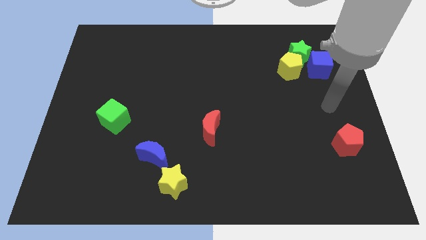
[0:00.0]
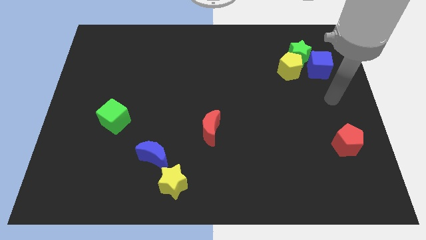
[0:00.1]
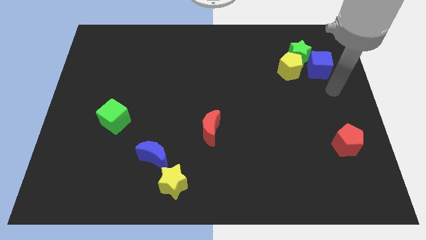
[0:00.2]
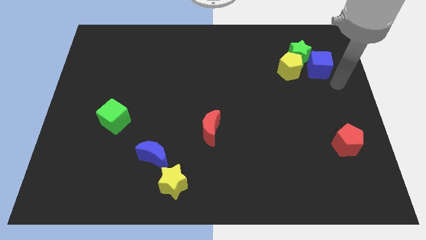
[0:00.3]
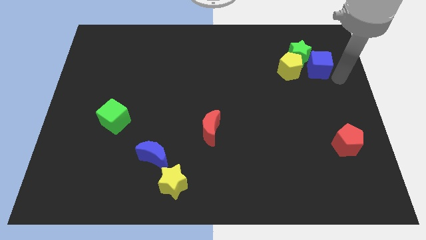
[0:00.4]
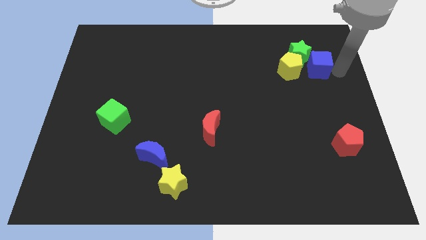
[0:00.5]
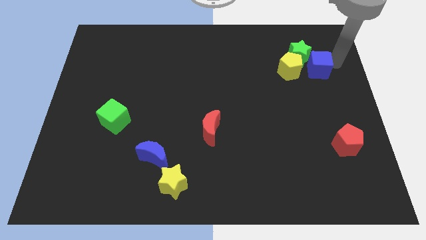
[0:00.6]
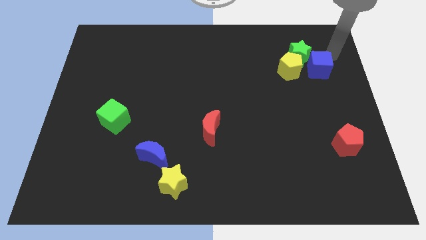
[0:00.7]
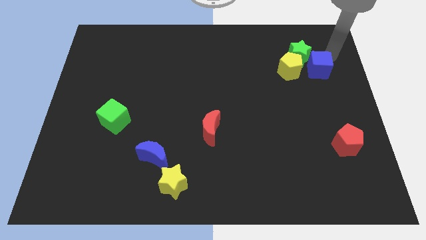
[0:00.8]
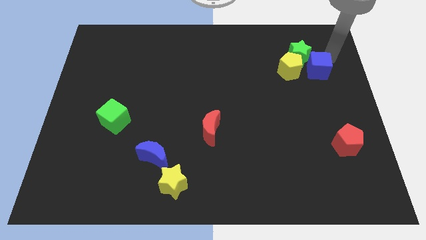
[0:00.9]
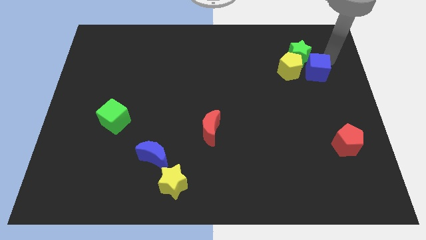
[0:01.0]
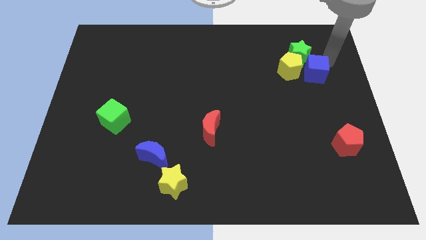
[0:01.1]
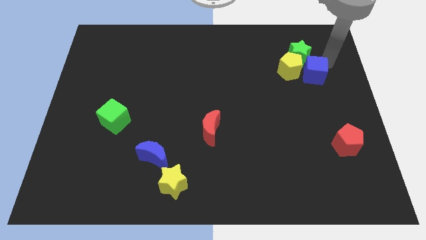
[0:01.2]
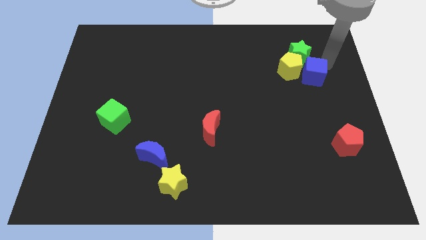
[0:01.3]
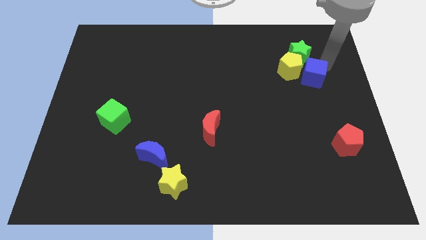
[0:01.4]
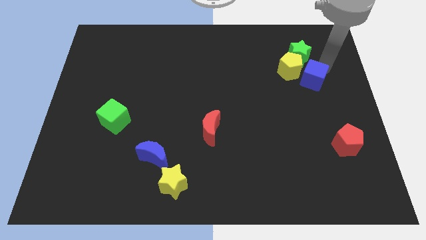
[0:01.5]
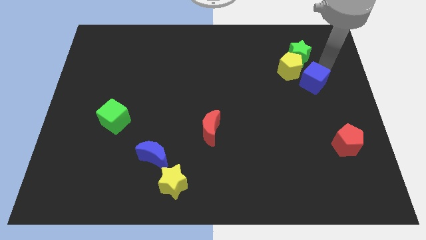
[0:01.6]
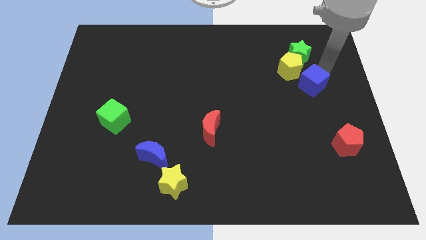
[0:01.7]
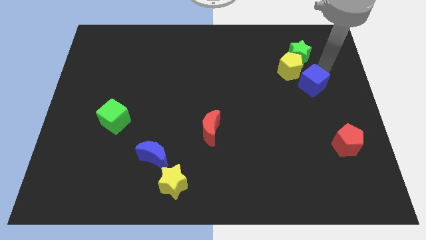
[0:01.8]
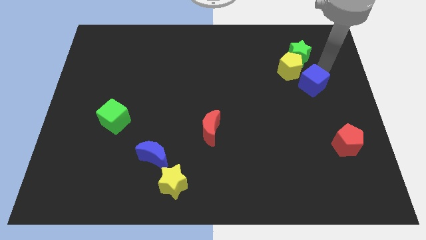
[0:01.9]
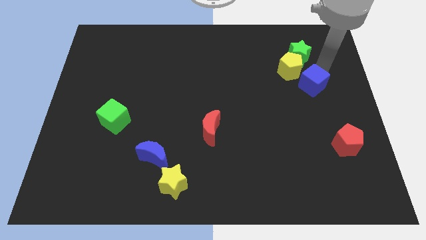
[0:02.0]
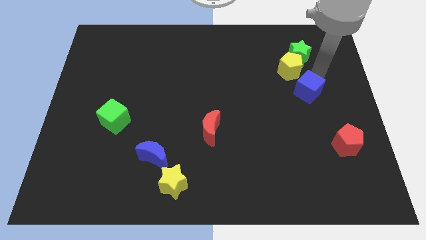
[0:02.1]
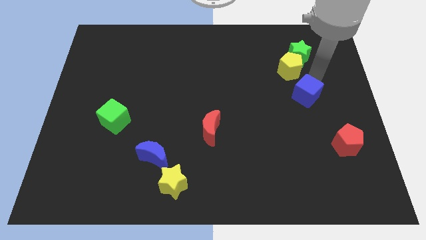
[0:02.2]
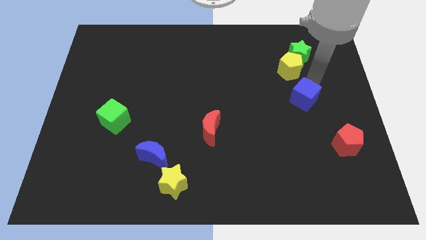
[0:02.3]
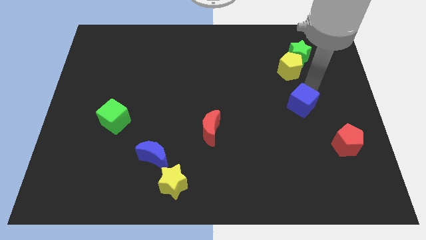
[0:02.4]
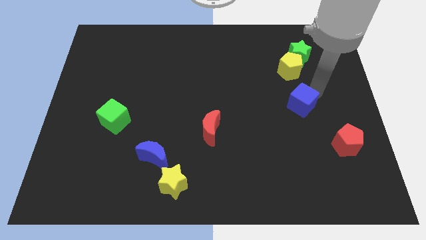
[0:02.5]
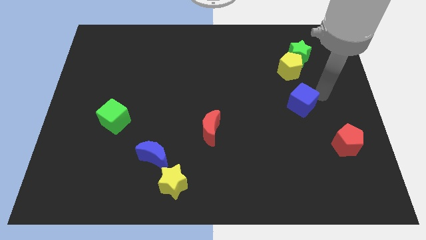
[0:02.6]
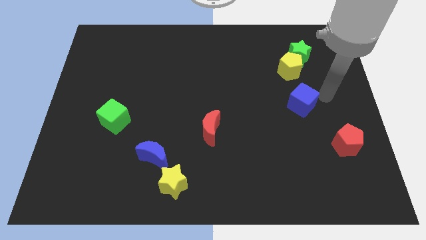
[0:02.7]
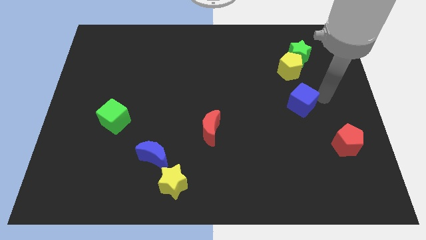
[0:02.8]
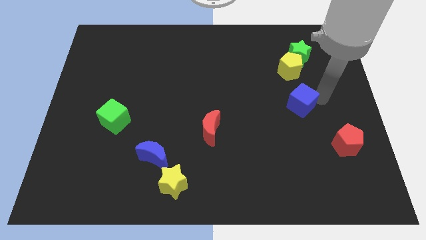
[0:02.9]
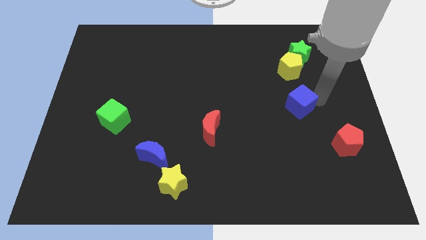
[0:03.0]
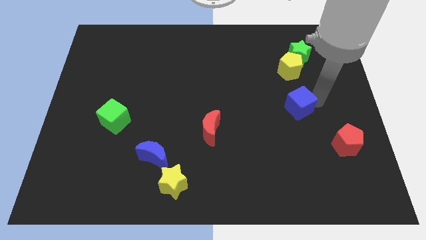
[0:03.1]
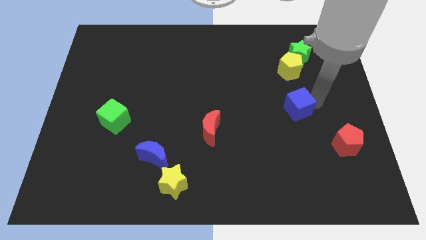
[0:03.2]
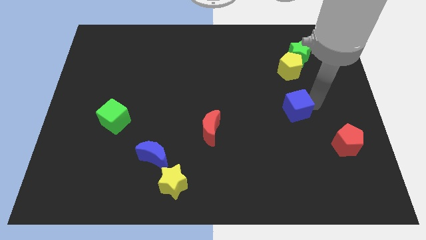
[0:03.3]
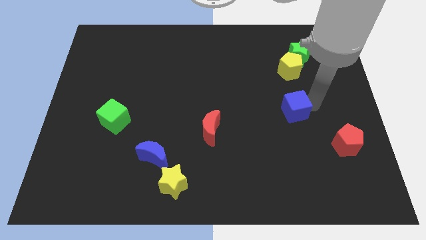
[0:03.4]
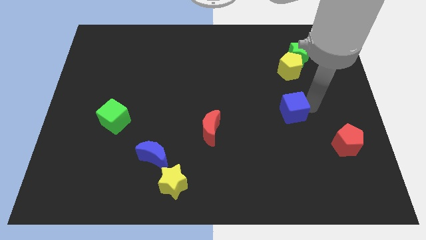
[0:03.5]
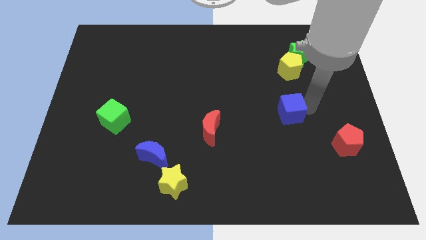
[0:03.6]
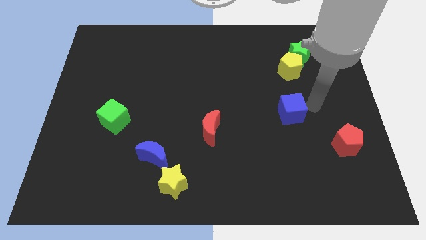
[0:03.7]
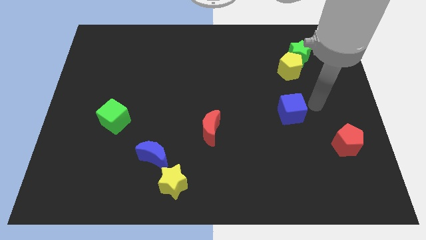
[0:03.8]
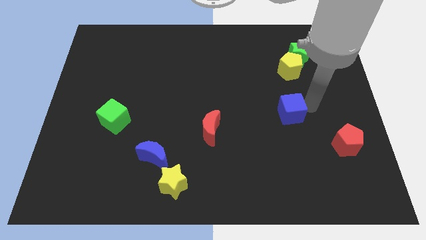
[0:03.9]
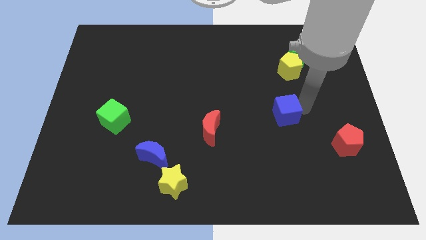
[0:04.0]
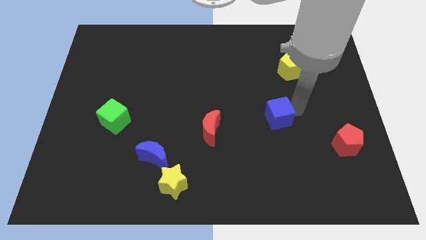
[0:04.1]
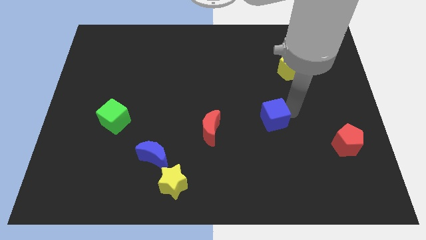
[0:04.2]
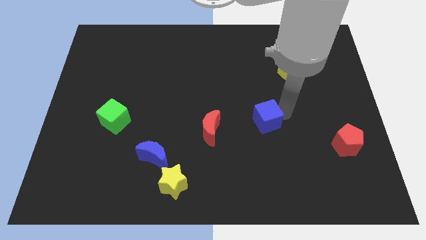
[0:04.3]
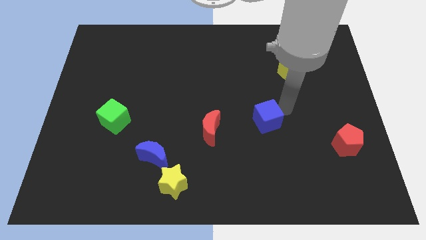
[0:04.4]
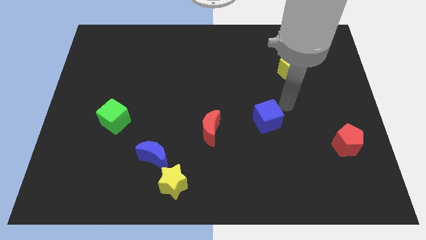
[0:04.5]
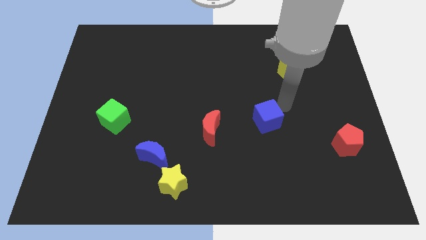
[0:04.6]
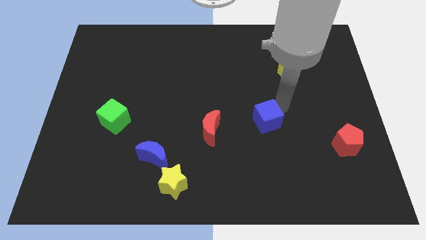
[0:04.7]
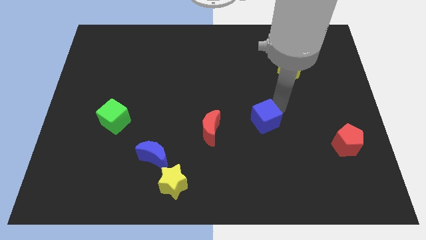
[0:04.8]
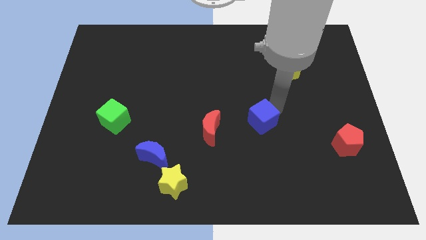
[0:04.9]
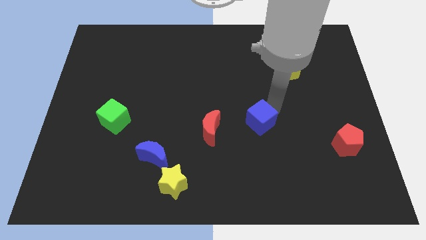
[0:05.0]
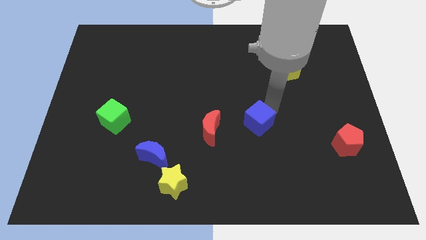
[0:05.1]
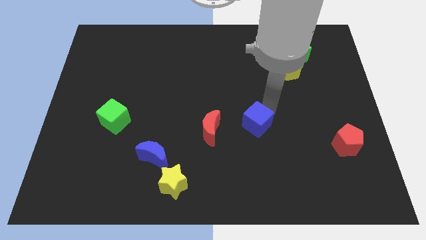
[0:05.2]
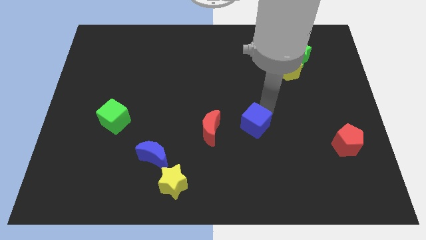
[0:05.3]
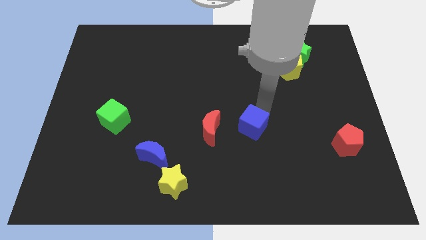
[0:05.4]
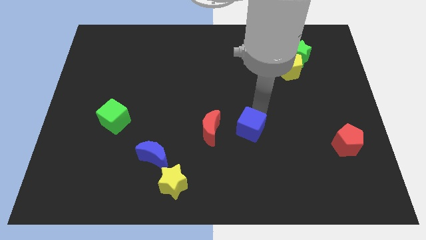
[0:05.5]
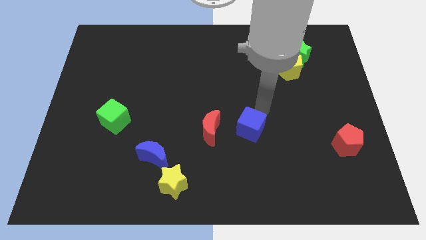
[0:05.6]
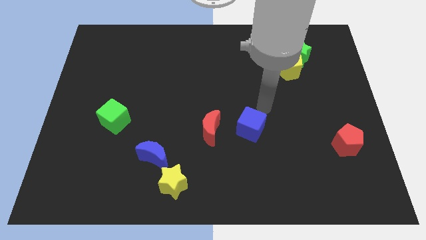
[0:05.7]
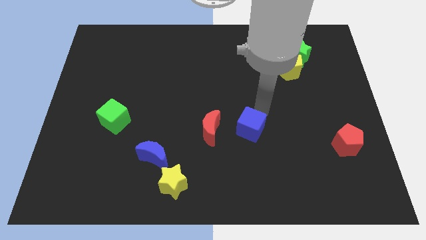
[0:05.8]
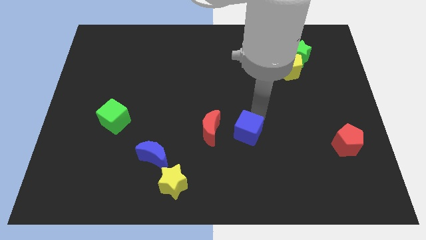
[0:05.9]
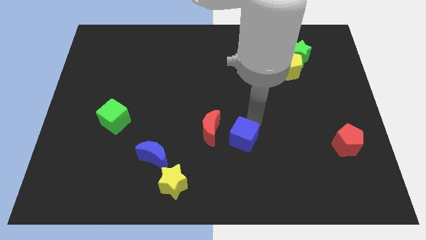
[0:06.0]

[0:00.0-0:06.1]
put the blue cube diagonally down and to the right of the red moon

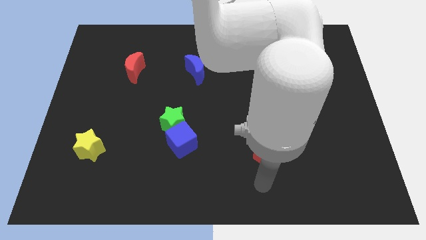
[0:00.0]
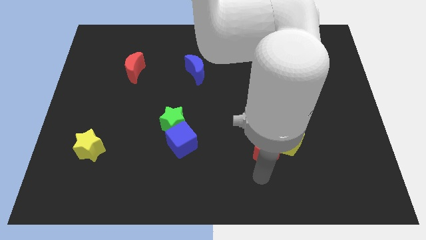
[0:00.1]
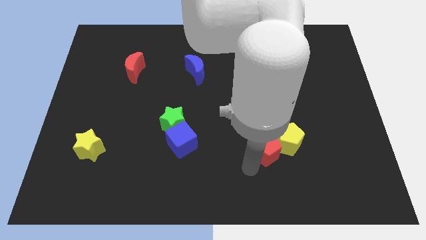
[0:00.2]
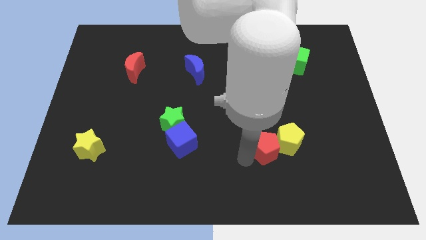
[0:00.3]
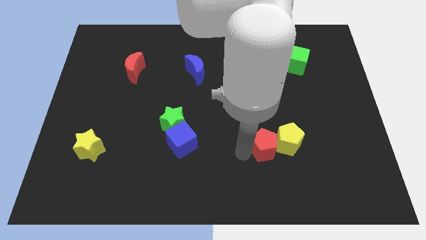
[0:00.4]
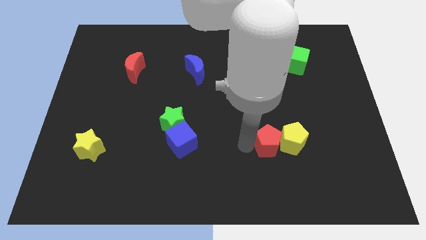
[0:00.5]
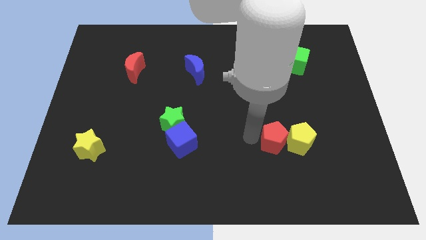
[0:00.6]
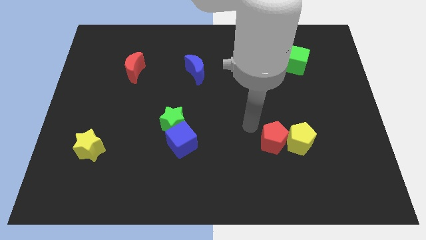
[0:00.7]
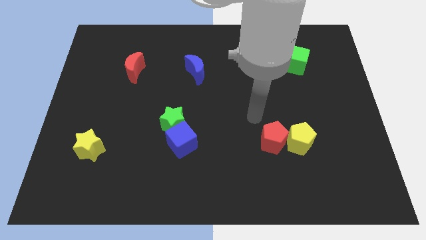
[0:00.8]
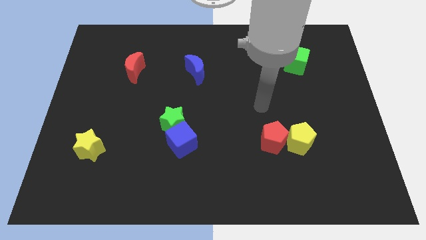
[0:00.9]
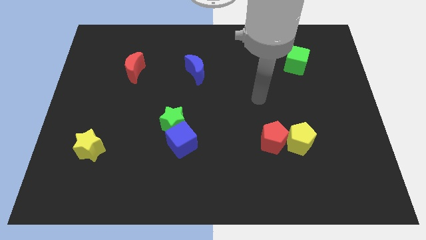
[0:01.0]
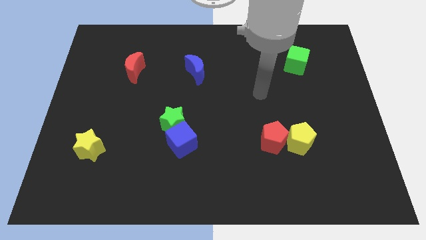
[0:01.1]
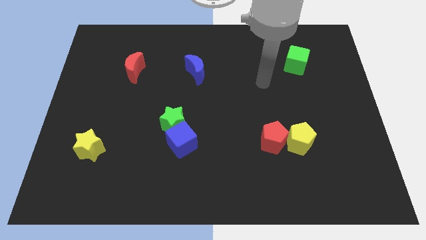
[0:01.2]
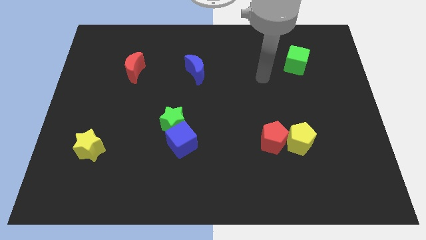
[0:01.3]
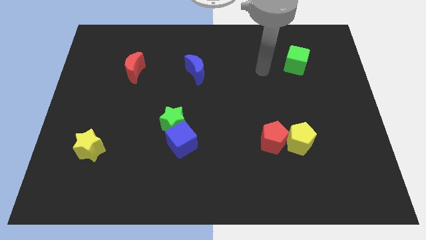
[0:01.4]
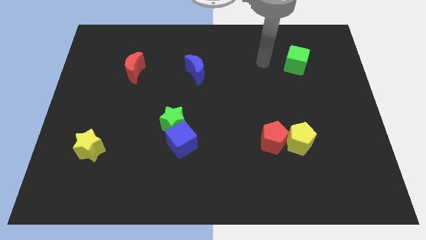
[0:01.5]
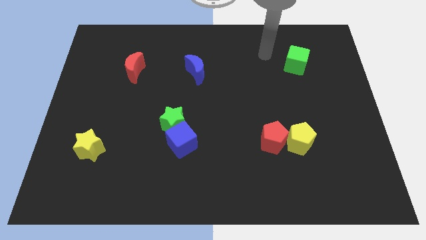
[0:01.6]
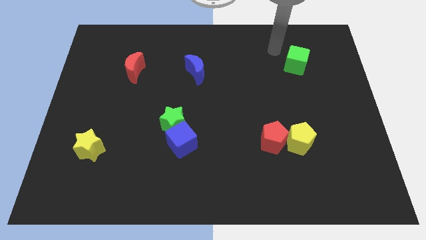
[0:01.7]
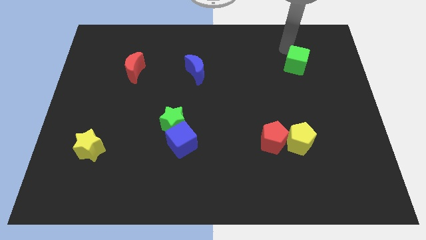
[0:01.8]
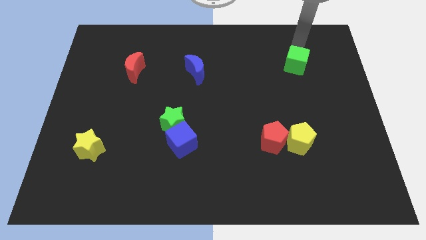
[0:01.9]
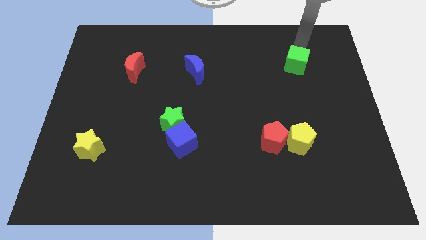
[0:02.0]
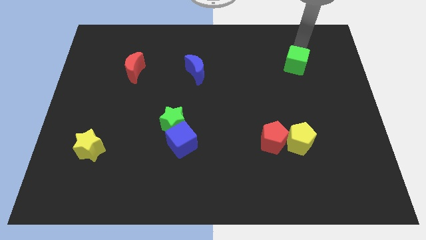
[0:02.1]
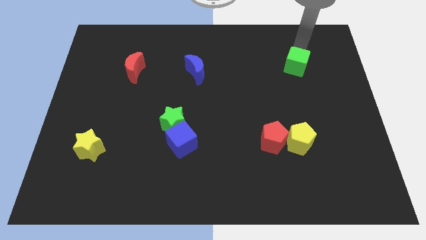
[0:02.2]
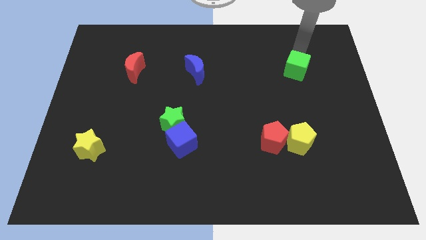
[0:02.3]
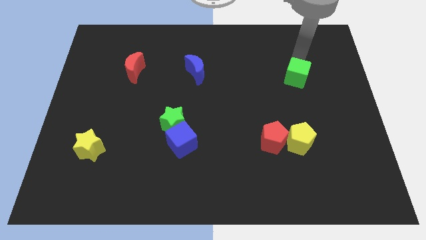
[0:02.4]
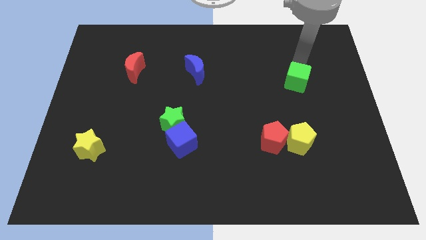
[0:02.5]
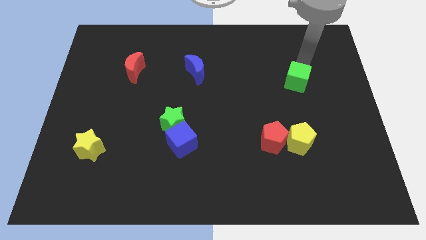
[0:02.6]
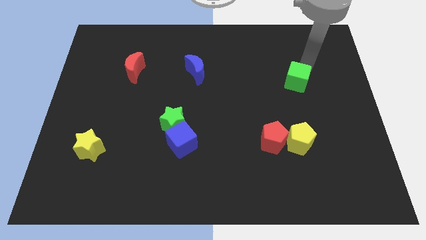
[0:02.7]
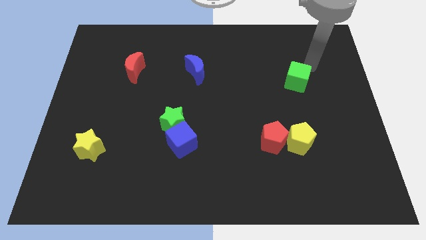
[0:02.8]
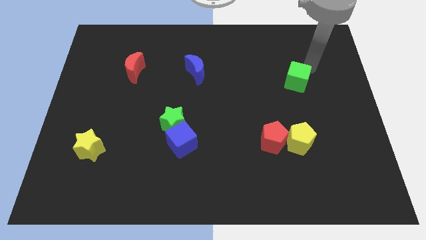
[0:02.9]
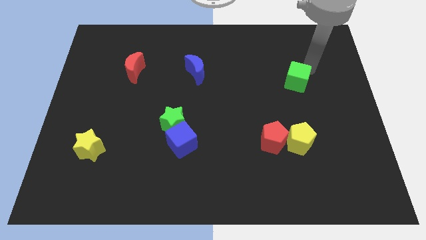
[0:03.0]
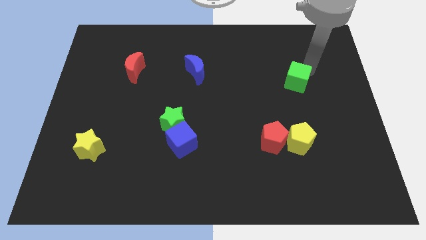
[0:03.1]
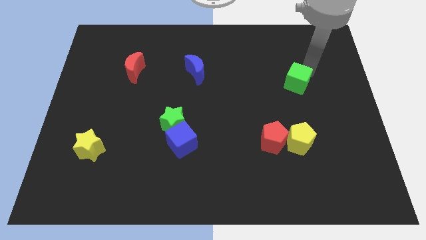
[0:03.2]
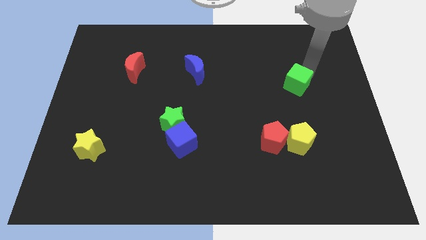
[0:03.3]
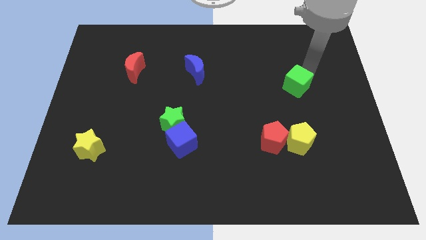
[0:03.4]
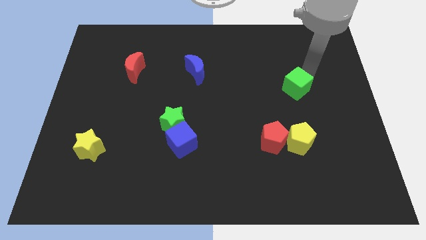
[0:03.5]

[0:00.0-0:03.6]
slide the green cube to the top of the yellow pentagon
